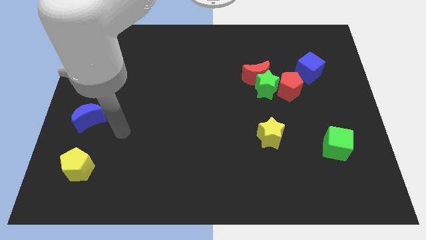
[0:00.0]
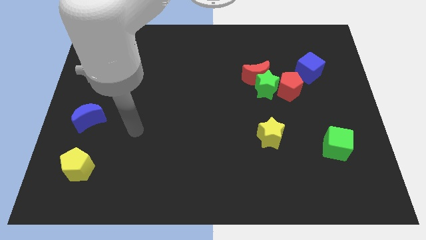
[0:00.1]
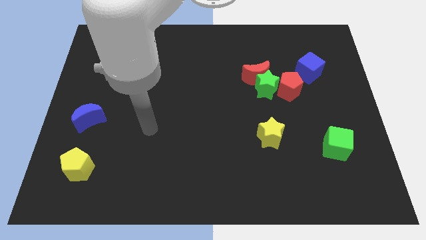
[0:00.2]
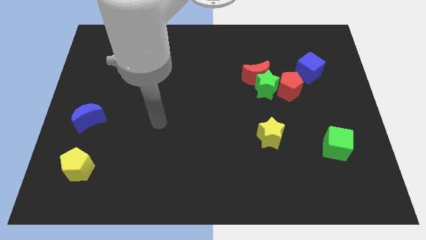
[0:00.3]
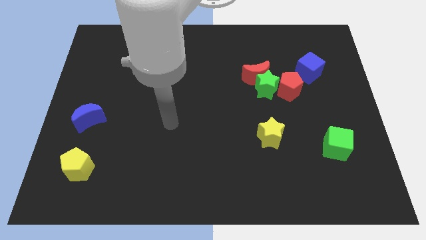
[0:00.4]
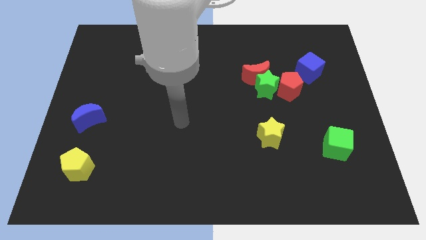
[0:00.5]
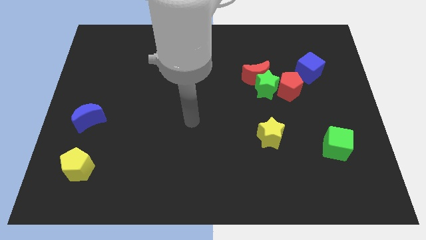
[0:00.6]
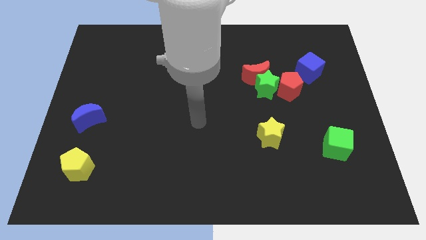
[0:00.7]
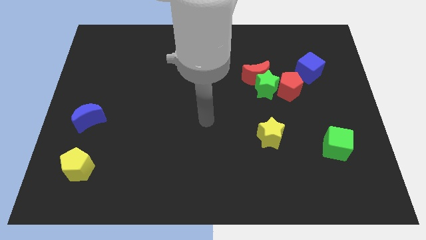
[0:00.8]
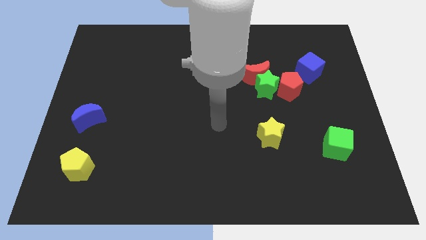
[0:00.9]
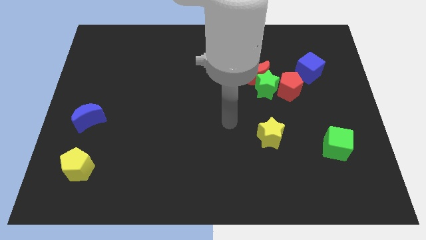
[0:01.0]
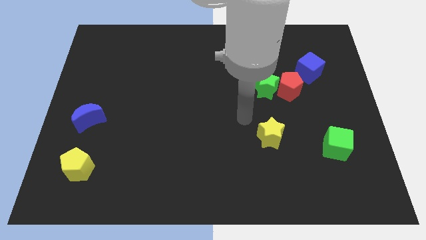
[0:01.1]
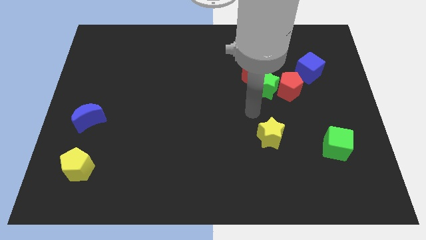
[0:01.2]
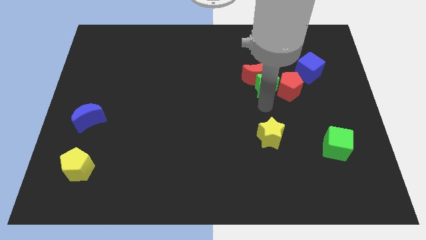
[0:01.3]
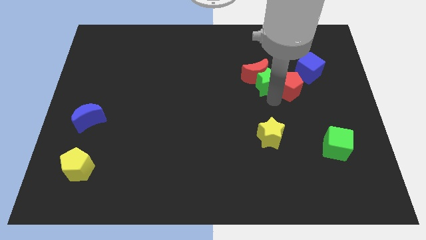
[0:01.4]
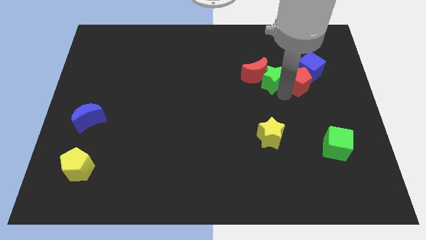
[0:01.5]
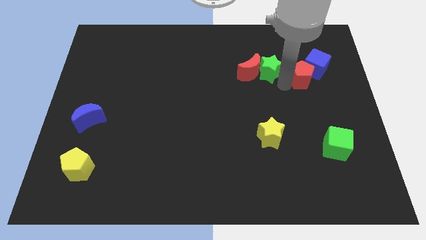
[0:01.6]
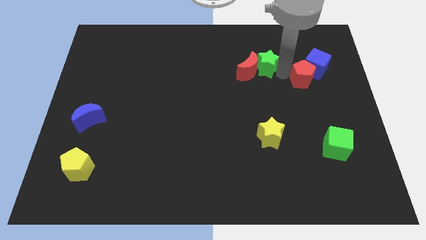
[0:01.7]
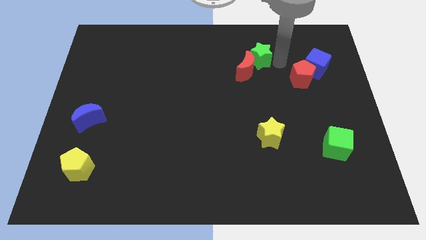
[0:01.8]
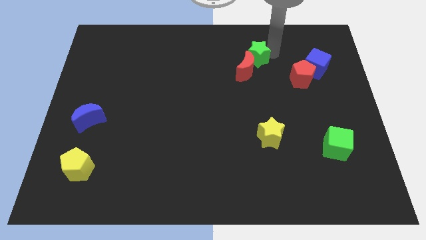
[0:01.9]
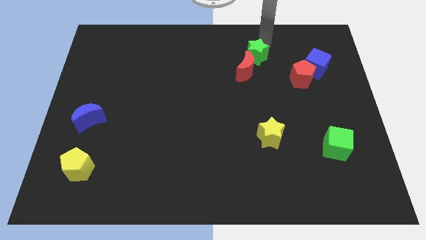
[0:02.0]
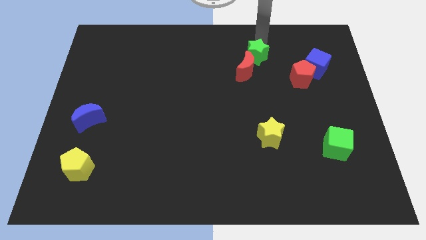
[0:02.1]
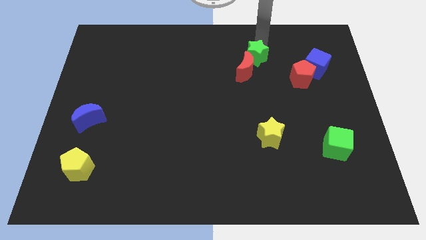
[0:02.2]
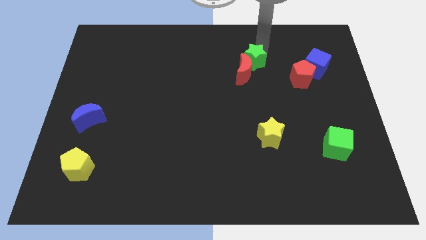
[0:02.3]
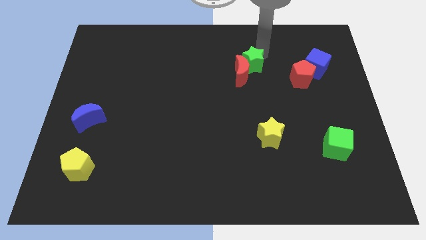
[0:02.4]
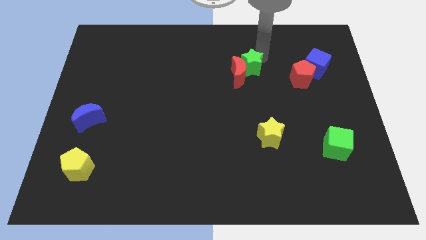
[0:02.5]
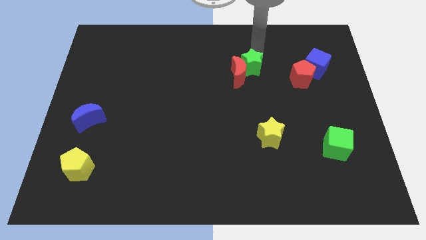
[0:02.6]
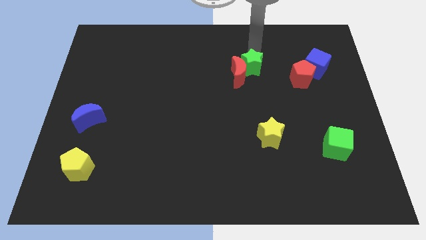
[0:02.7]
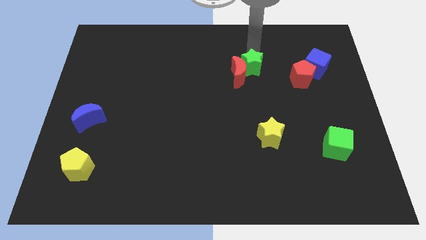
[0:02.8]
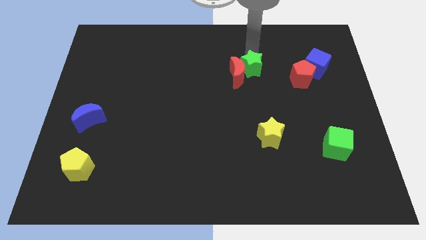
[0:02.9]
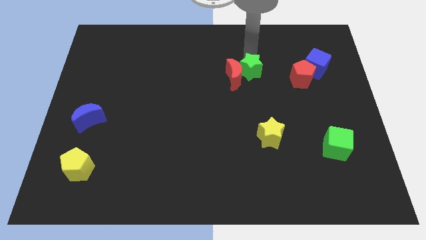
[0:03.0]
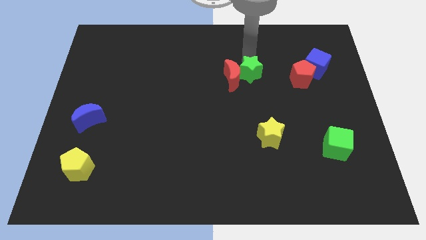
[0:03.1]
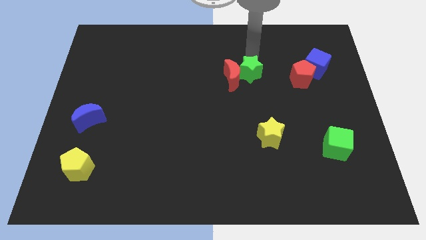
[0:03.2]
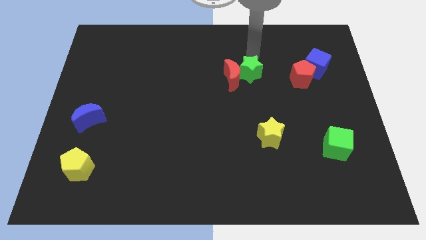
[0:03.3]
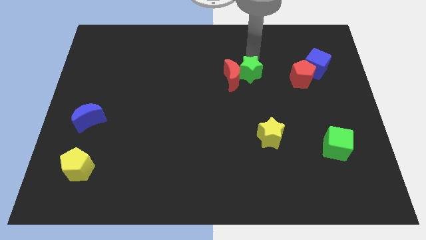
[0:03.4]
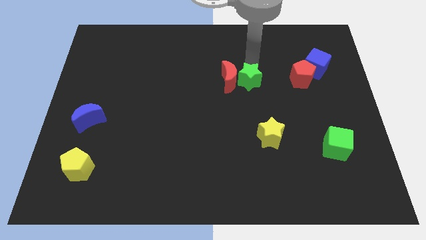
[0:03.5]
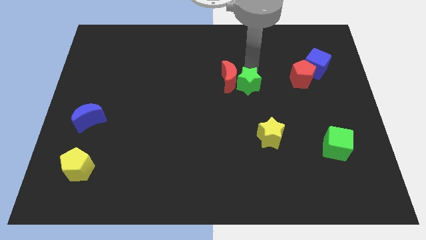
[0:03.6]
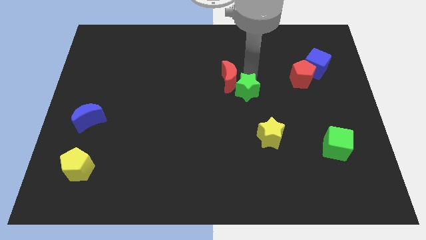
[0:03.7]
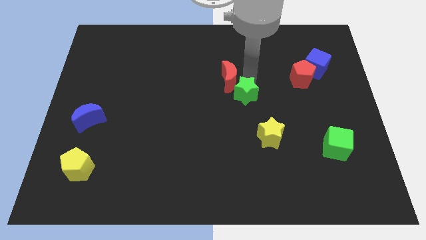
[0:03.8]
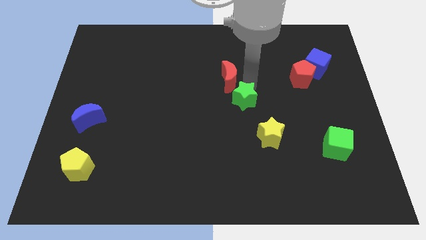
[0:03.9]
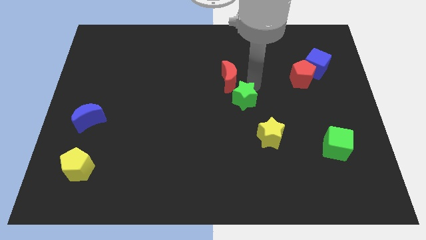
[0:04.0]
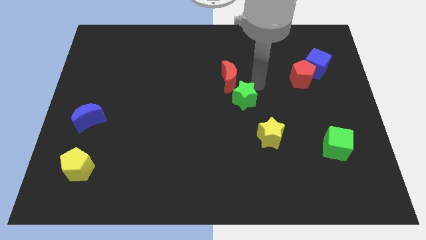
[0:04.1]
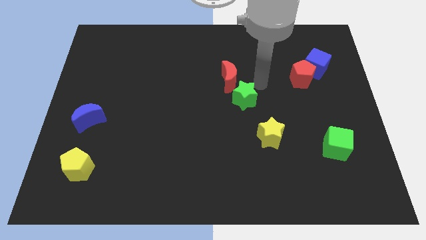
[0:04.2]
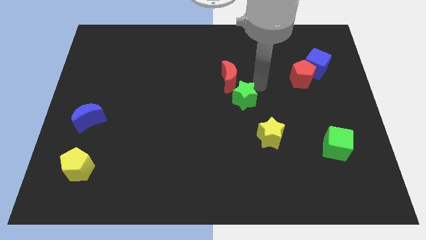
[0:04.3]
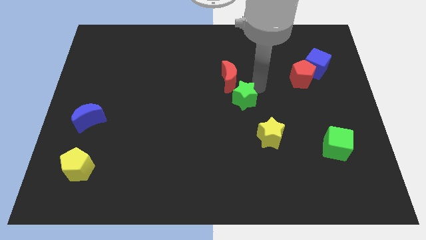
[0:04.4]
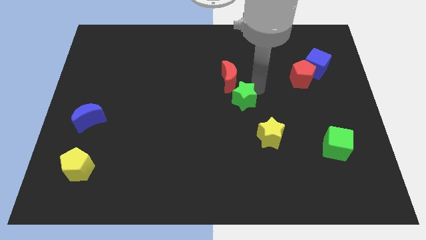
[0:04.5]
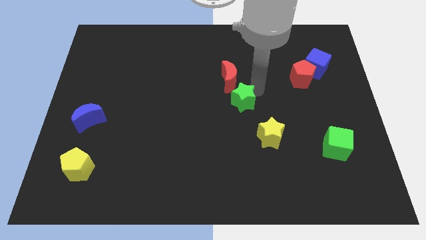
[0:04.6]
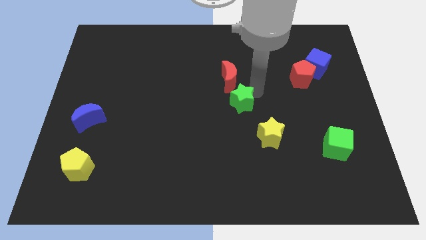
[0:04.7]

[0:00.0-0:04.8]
separate the green star from the red moon and red pentagon

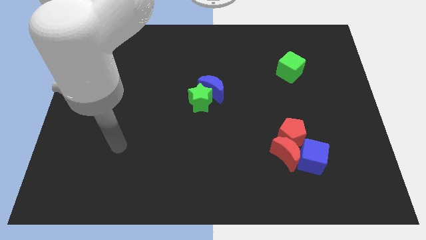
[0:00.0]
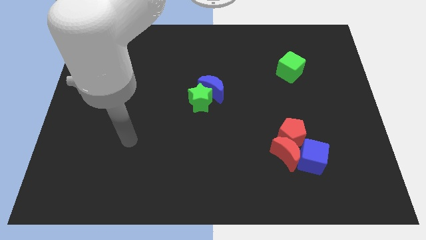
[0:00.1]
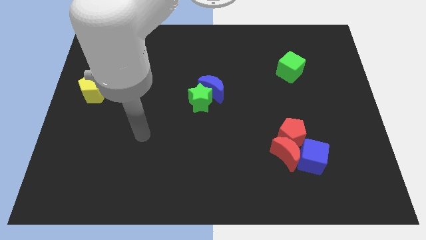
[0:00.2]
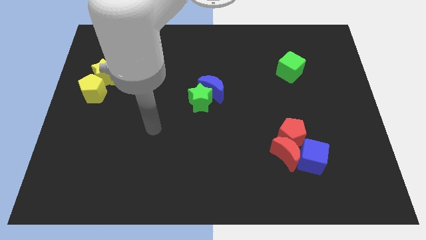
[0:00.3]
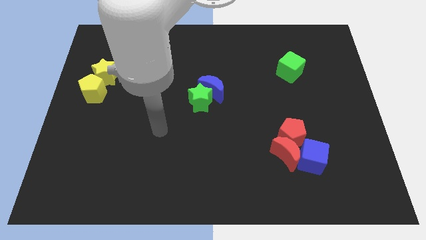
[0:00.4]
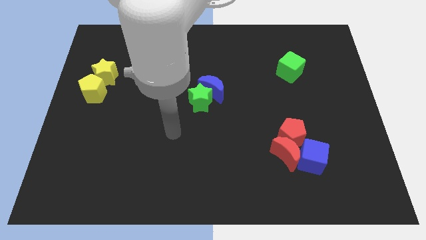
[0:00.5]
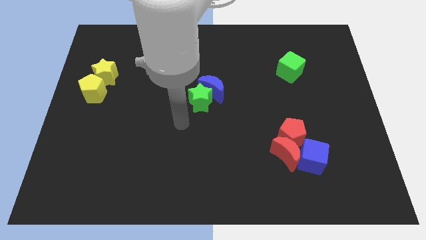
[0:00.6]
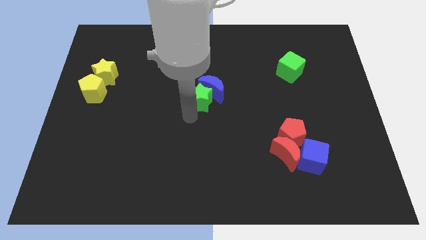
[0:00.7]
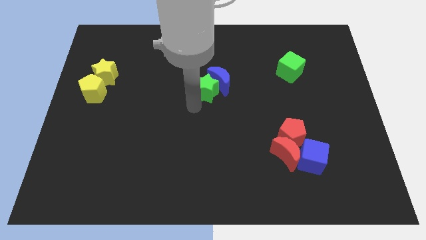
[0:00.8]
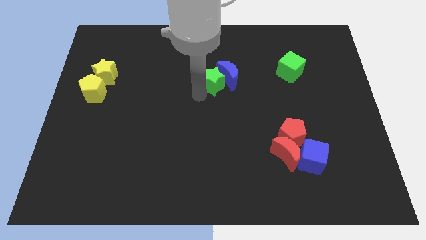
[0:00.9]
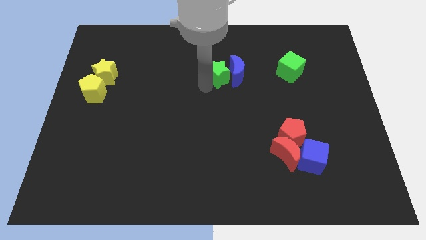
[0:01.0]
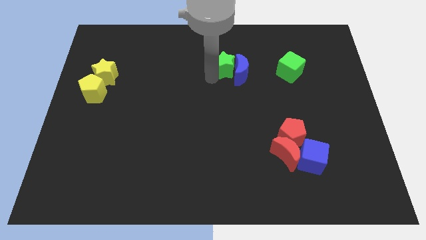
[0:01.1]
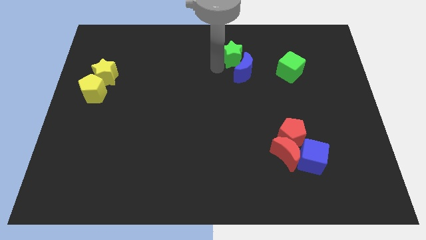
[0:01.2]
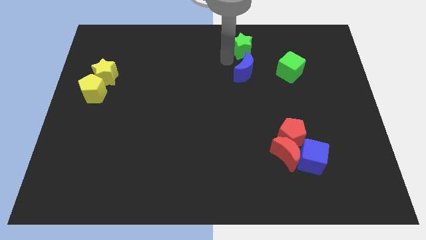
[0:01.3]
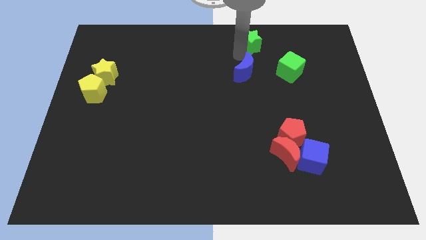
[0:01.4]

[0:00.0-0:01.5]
move the blue moon away from the green star

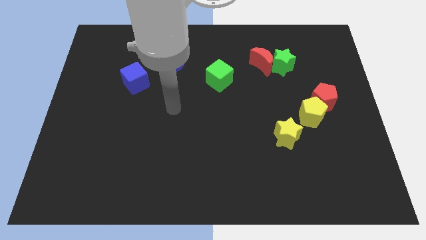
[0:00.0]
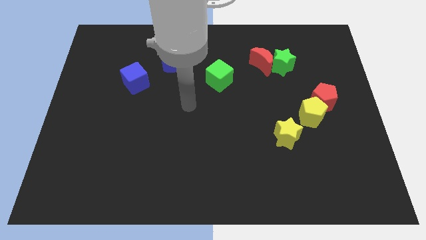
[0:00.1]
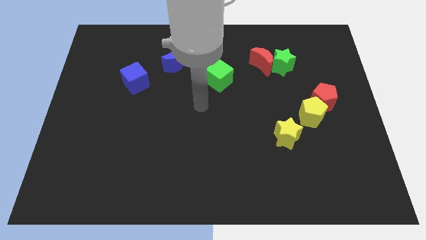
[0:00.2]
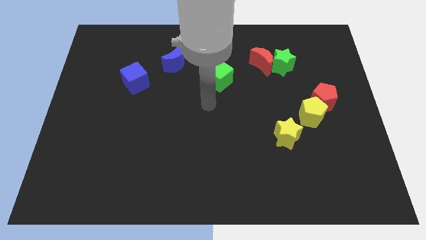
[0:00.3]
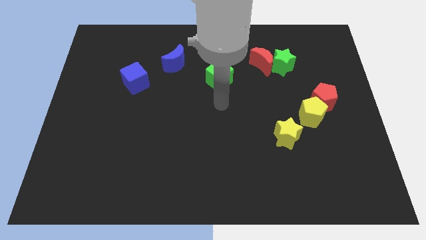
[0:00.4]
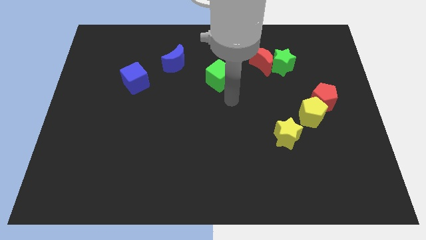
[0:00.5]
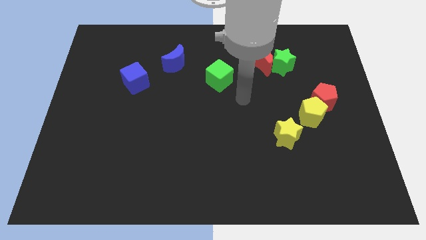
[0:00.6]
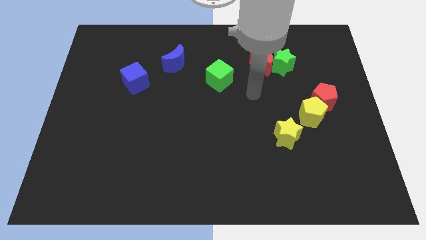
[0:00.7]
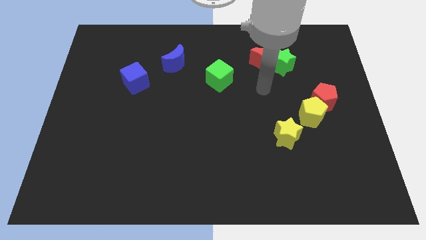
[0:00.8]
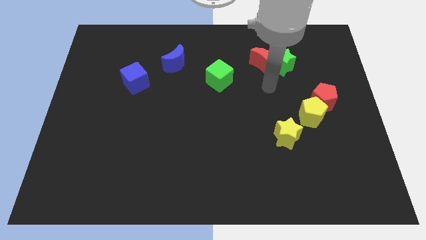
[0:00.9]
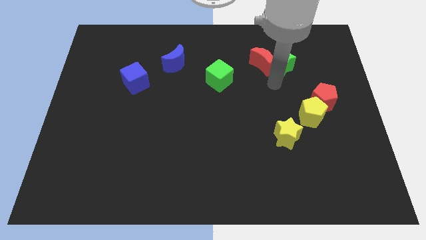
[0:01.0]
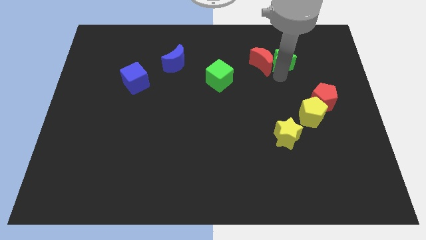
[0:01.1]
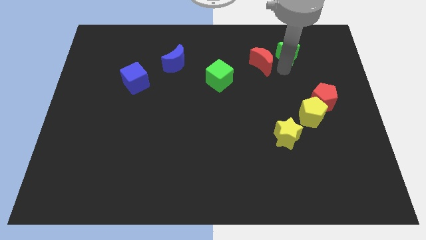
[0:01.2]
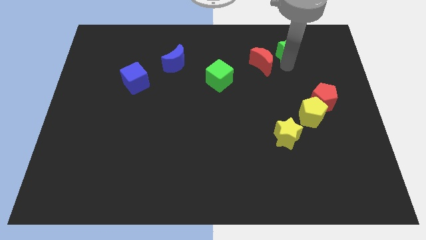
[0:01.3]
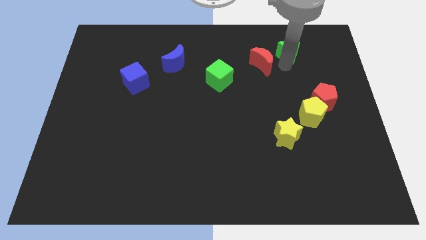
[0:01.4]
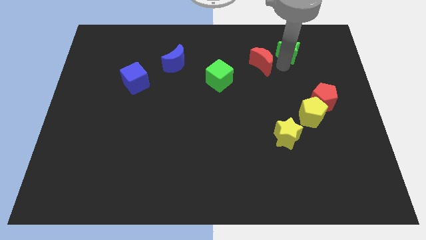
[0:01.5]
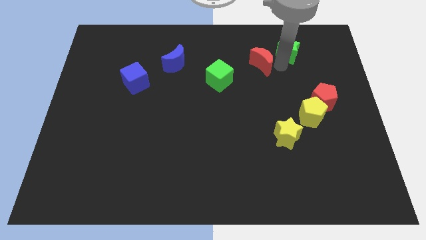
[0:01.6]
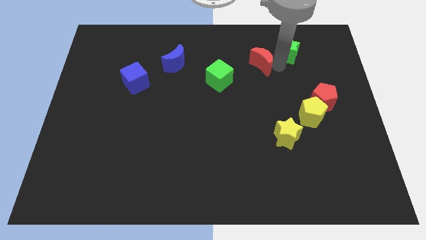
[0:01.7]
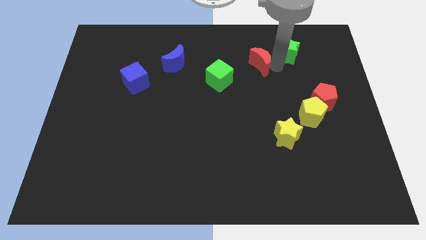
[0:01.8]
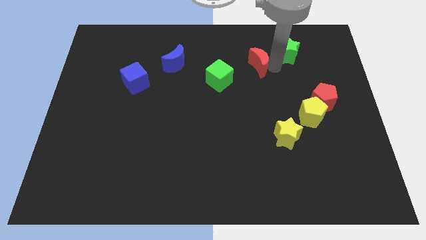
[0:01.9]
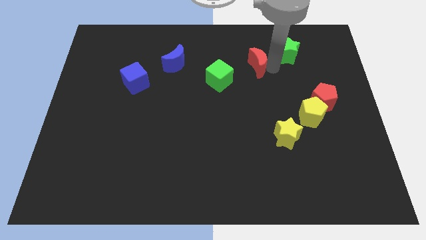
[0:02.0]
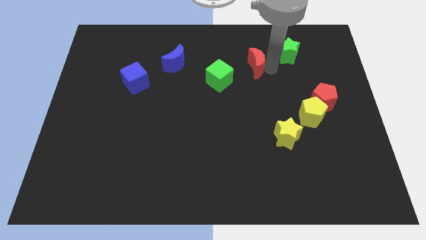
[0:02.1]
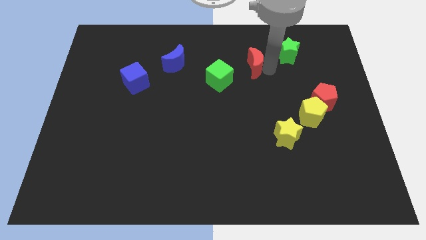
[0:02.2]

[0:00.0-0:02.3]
separate the red moon from the green star

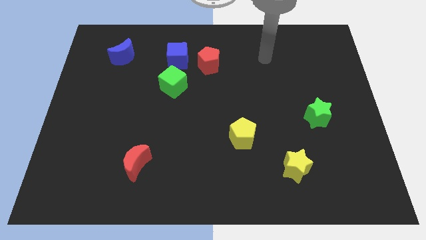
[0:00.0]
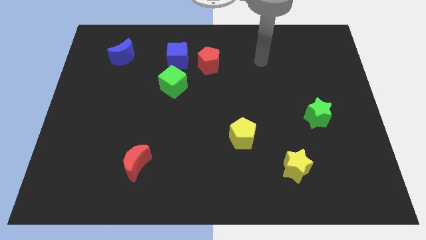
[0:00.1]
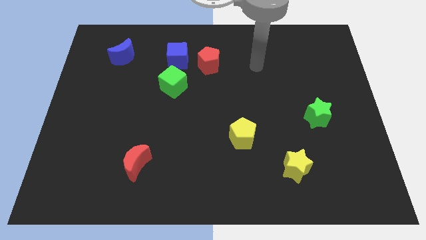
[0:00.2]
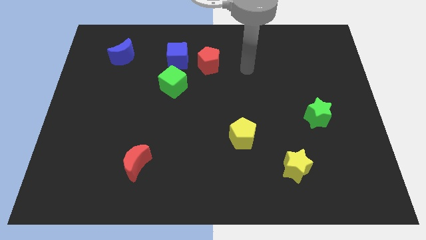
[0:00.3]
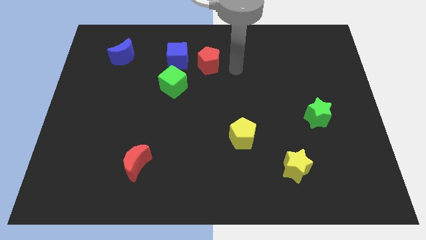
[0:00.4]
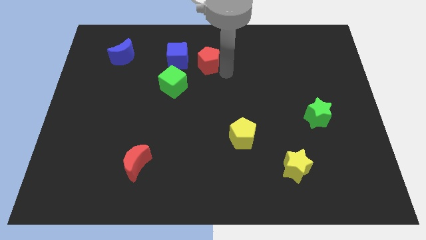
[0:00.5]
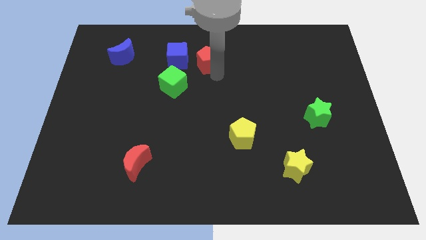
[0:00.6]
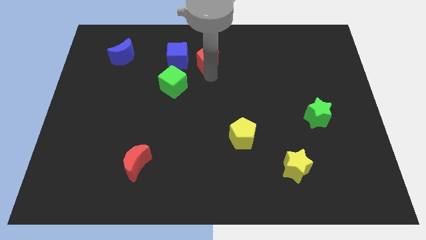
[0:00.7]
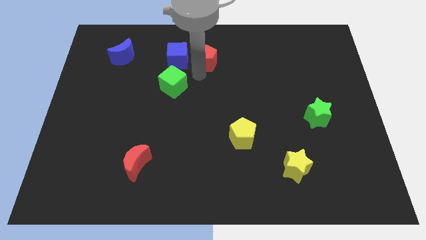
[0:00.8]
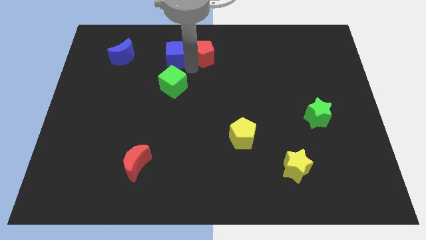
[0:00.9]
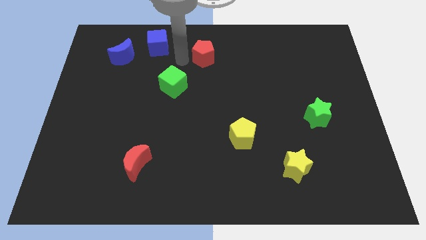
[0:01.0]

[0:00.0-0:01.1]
move the red pentagon away from the blue cube
